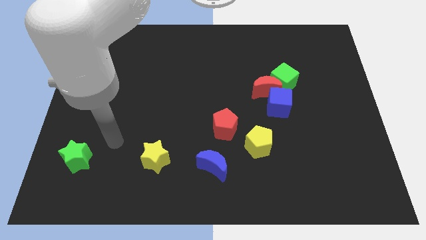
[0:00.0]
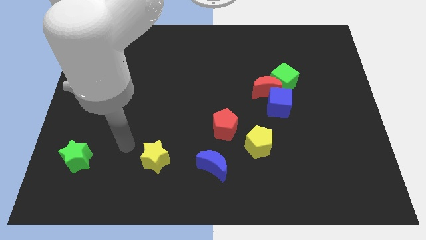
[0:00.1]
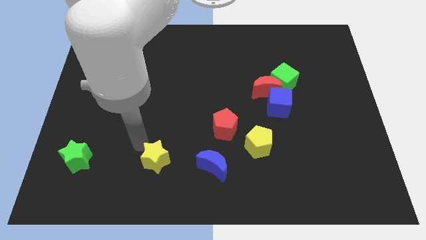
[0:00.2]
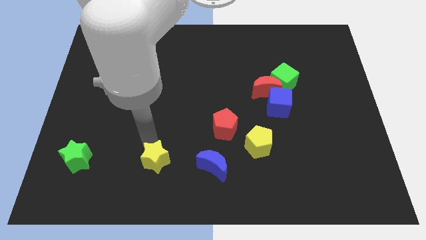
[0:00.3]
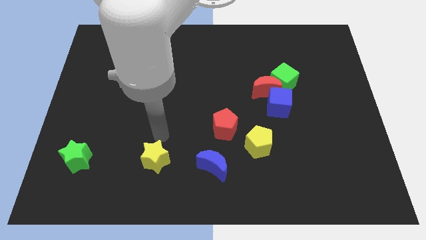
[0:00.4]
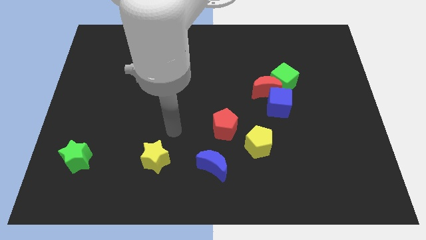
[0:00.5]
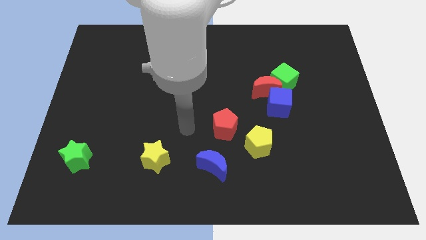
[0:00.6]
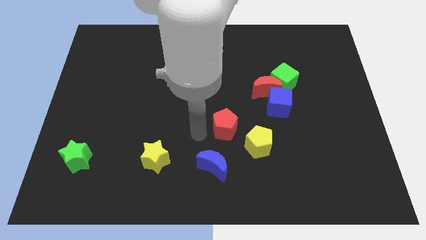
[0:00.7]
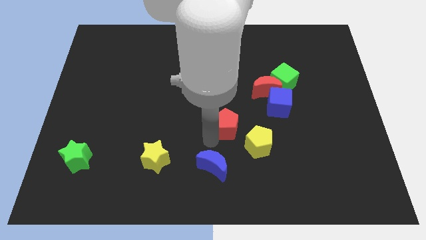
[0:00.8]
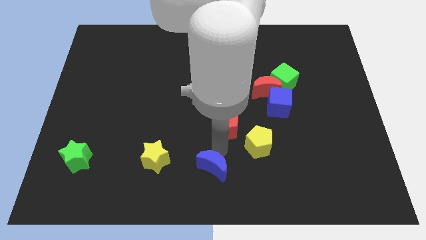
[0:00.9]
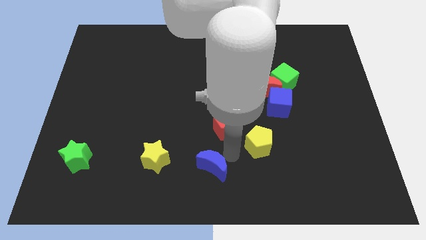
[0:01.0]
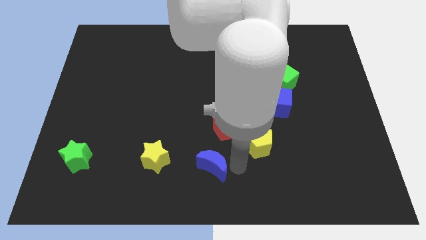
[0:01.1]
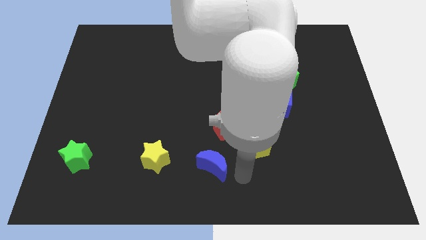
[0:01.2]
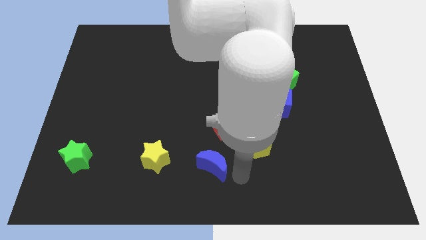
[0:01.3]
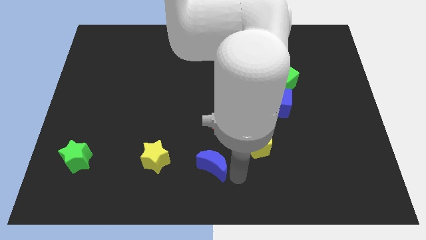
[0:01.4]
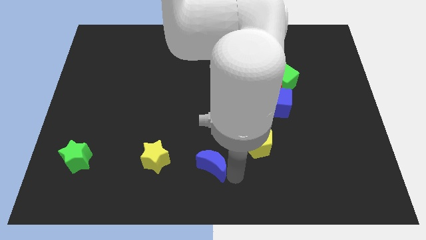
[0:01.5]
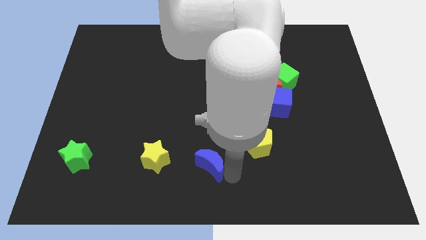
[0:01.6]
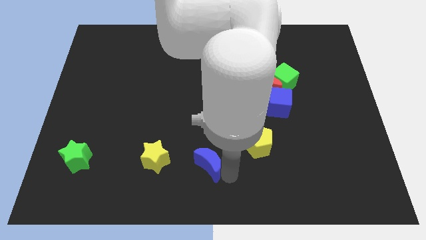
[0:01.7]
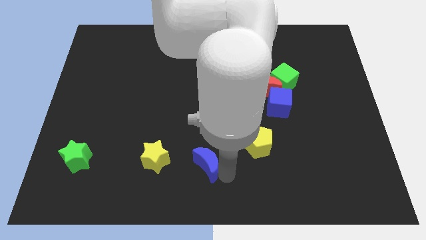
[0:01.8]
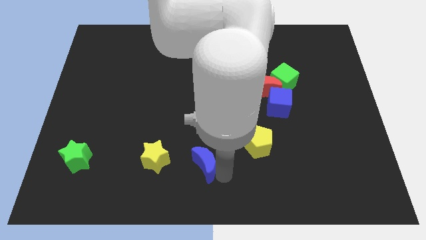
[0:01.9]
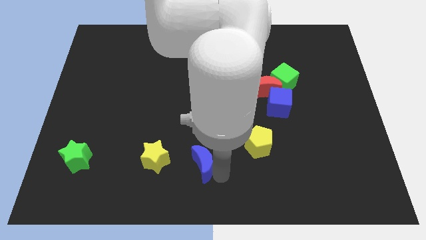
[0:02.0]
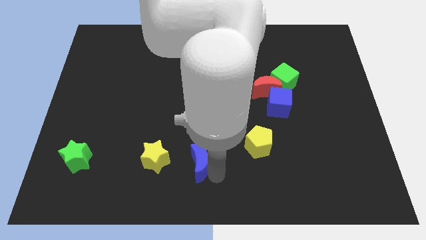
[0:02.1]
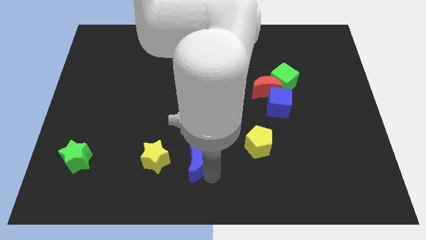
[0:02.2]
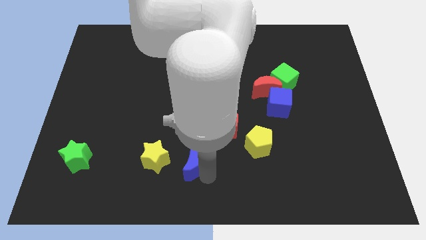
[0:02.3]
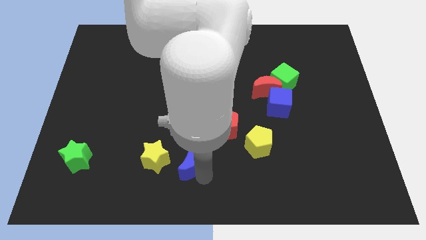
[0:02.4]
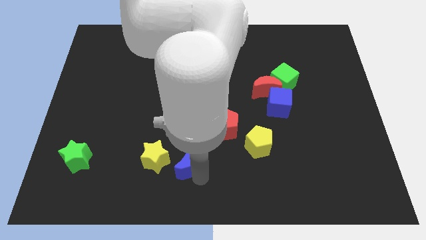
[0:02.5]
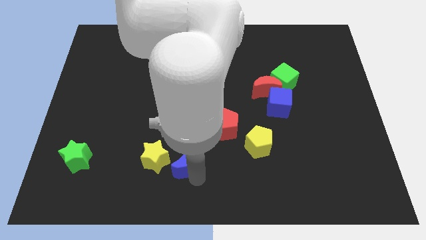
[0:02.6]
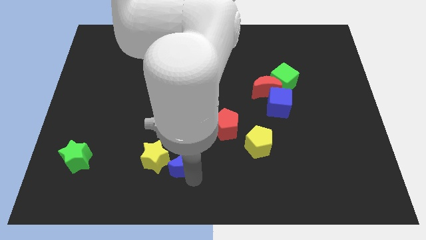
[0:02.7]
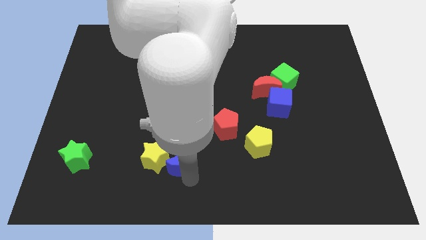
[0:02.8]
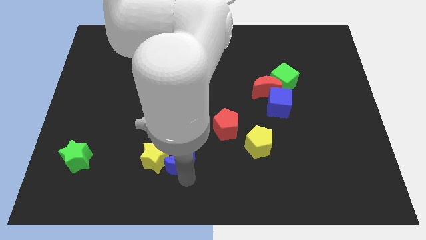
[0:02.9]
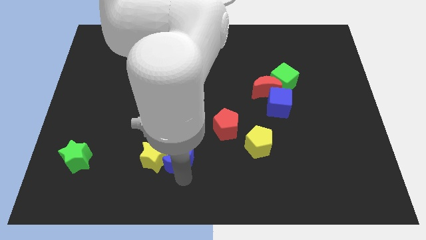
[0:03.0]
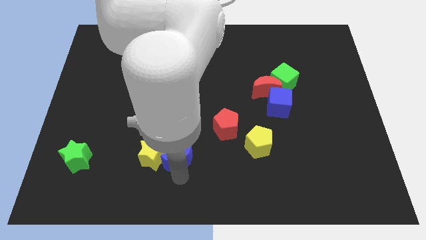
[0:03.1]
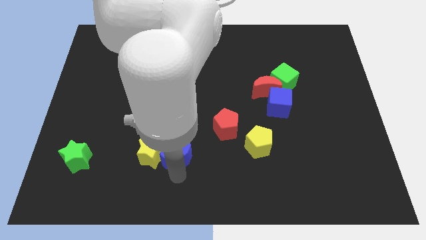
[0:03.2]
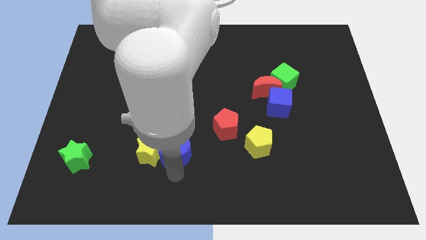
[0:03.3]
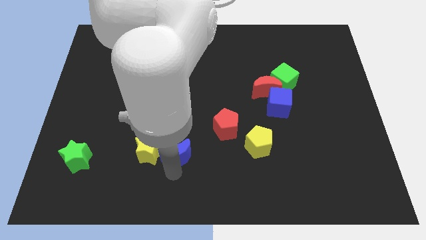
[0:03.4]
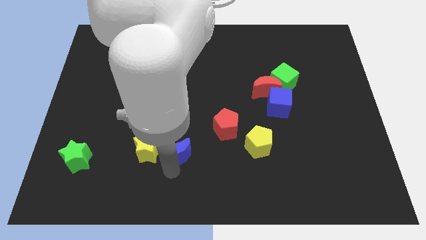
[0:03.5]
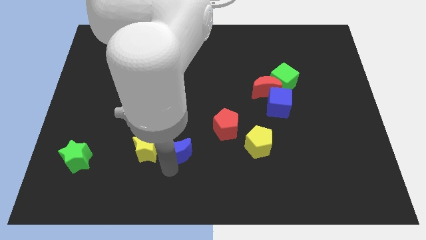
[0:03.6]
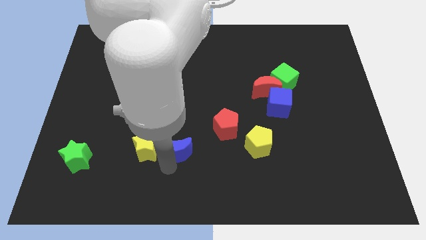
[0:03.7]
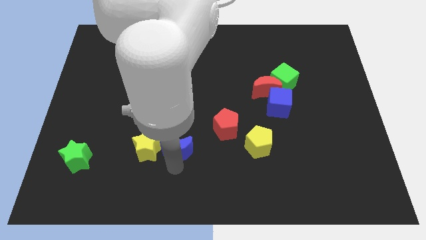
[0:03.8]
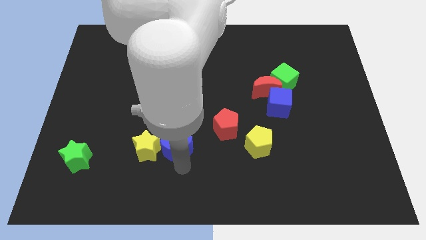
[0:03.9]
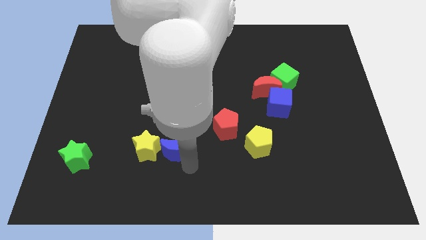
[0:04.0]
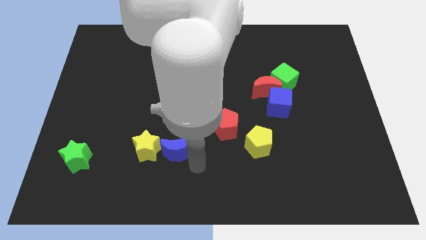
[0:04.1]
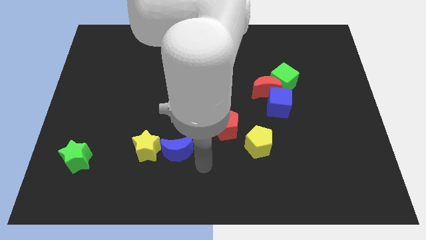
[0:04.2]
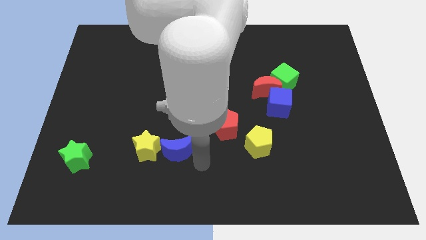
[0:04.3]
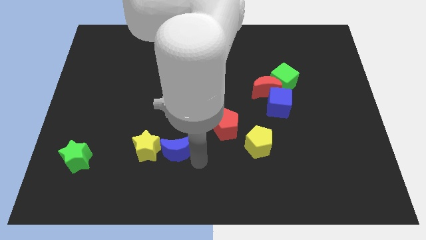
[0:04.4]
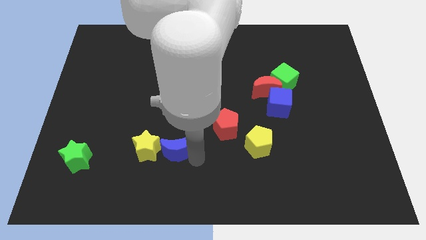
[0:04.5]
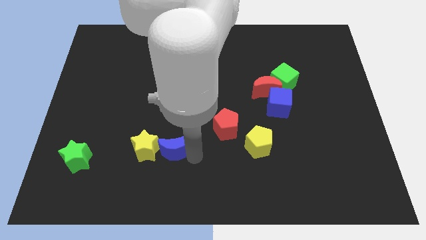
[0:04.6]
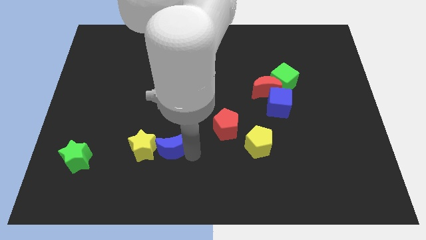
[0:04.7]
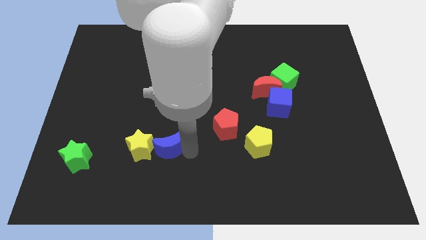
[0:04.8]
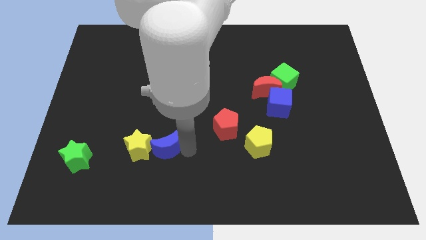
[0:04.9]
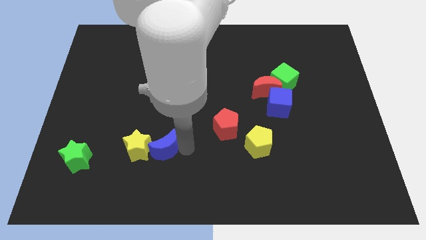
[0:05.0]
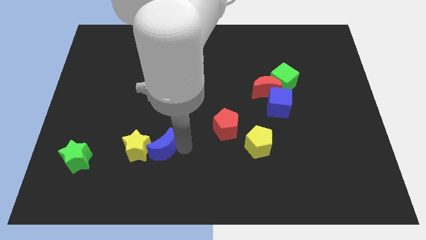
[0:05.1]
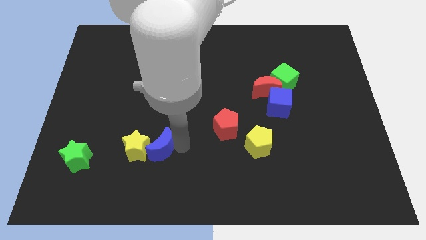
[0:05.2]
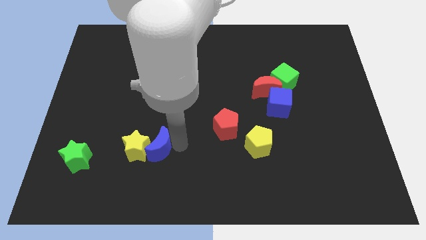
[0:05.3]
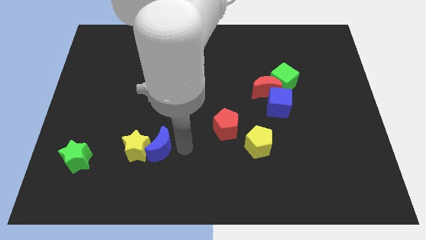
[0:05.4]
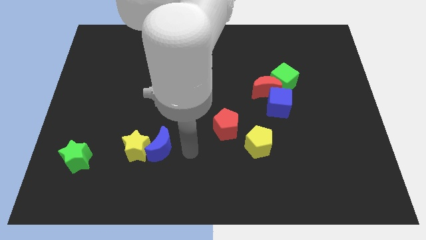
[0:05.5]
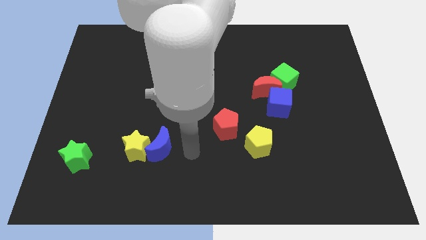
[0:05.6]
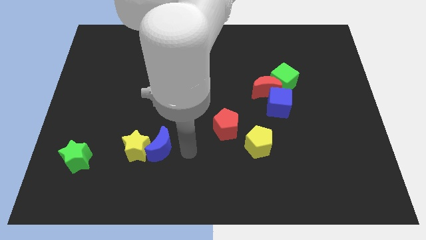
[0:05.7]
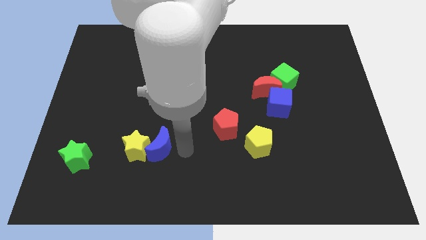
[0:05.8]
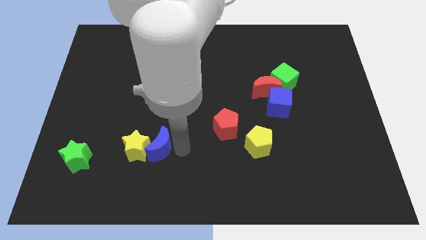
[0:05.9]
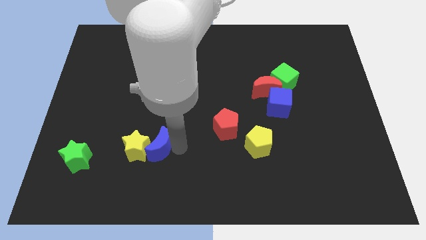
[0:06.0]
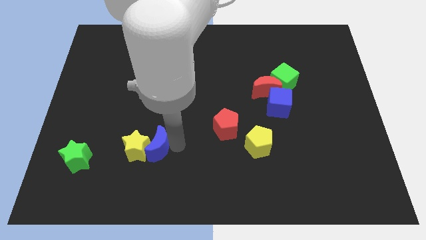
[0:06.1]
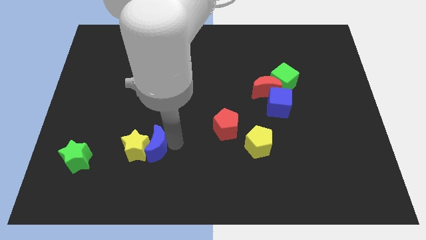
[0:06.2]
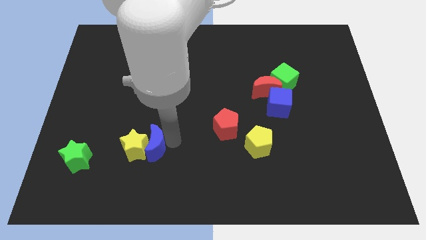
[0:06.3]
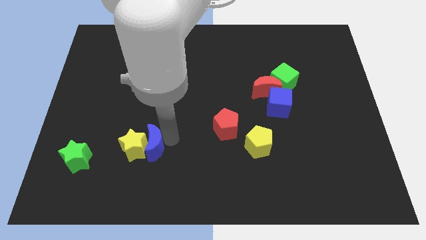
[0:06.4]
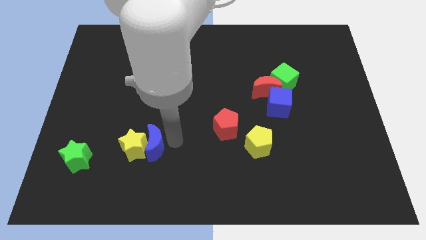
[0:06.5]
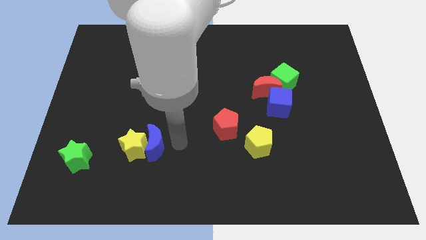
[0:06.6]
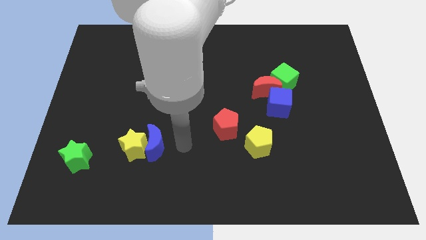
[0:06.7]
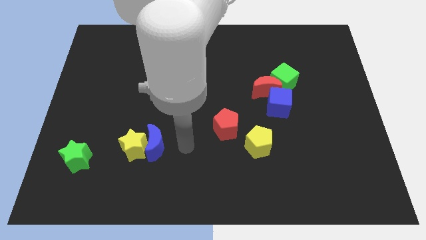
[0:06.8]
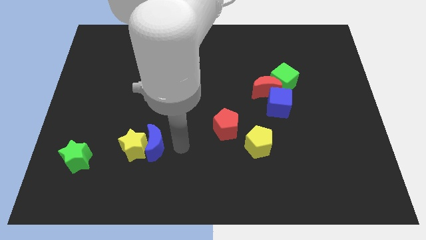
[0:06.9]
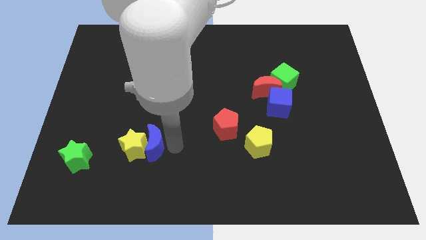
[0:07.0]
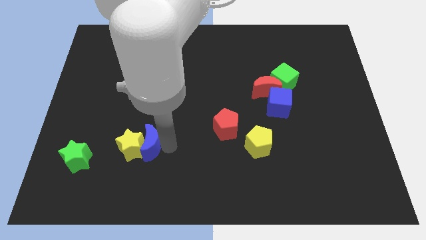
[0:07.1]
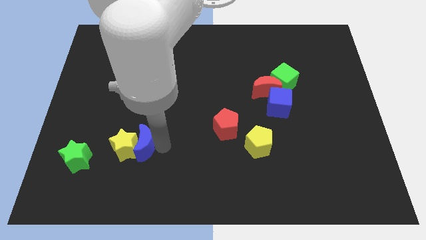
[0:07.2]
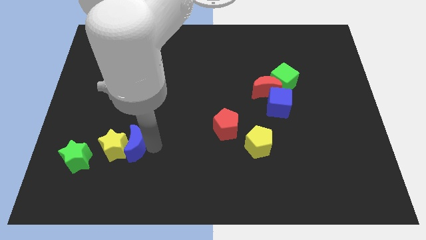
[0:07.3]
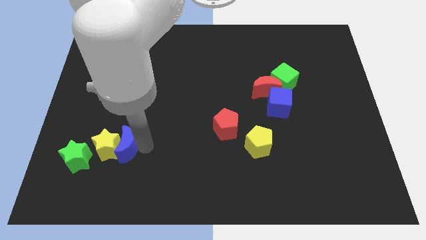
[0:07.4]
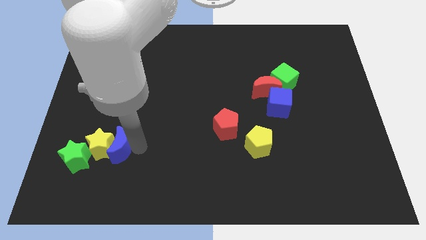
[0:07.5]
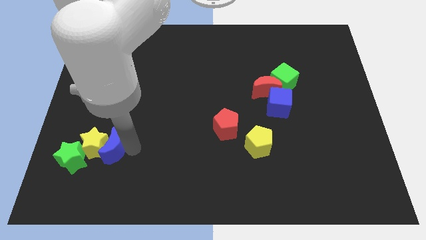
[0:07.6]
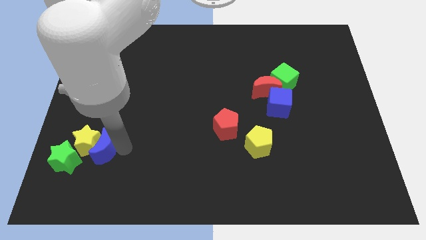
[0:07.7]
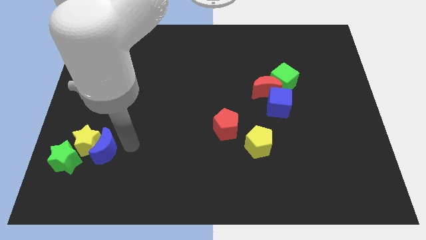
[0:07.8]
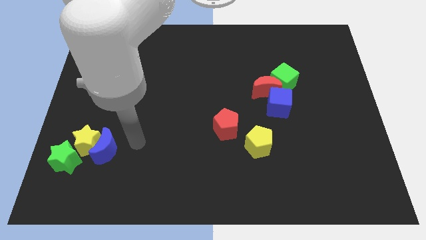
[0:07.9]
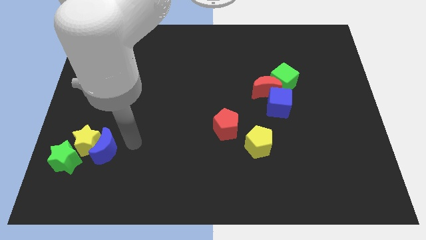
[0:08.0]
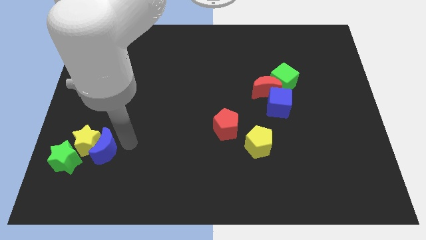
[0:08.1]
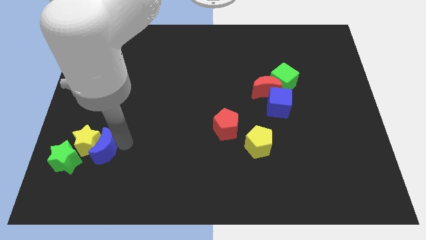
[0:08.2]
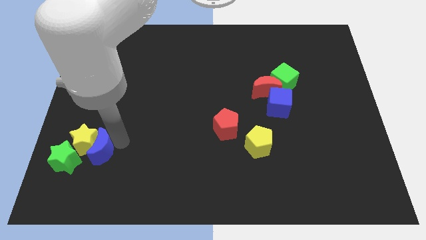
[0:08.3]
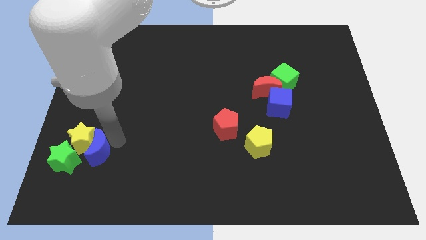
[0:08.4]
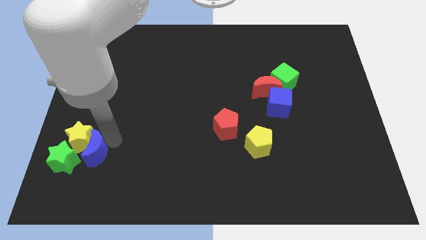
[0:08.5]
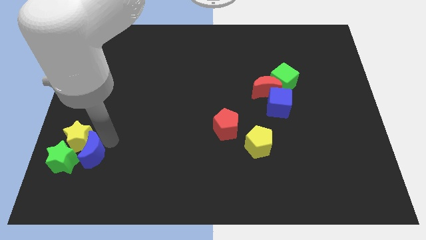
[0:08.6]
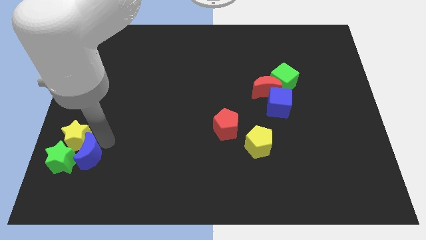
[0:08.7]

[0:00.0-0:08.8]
slide the blue moon next to the green star
